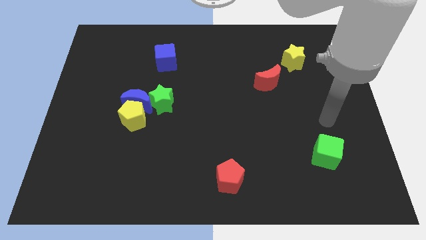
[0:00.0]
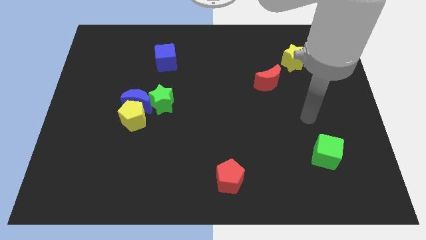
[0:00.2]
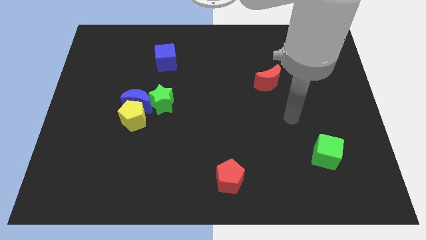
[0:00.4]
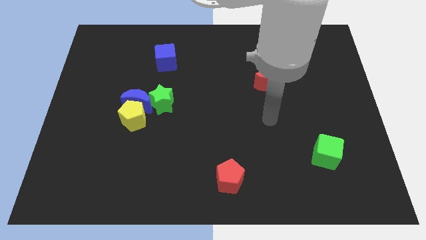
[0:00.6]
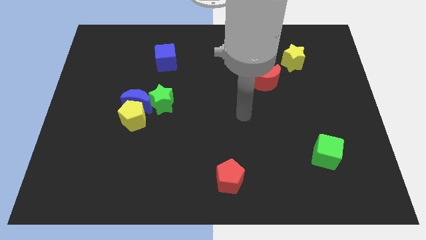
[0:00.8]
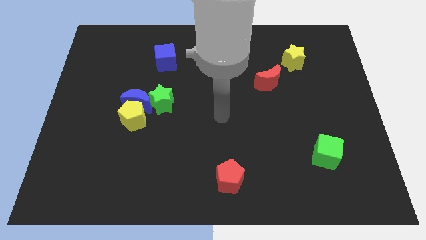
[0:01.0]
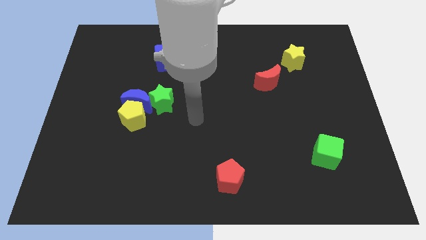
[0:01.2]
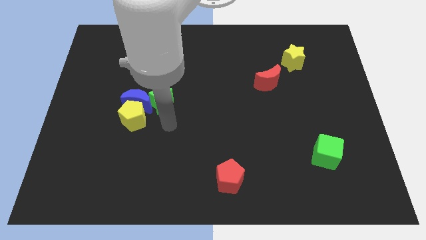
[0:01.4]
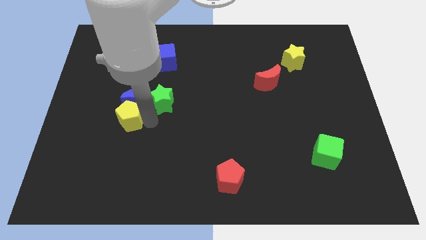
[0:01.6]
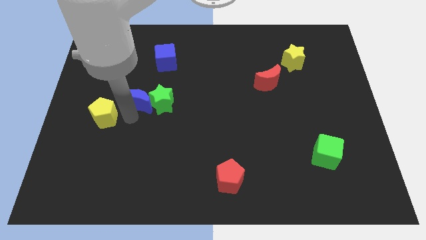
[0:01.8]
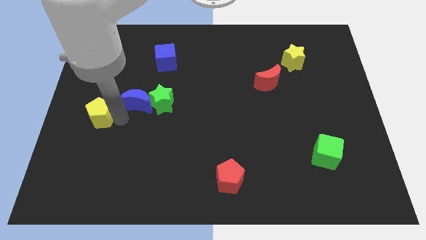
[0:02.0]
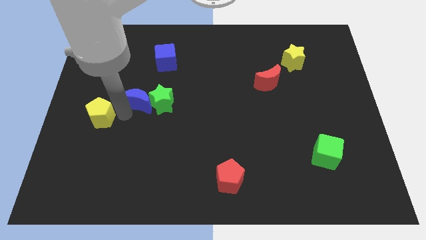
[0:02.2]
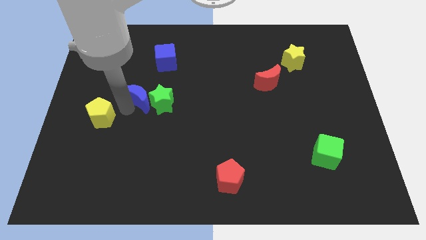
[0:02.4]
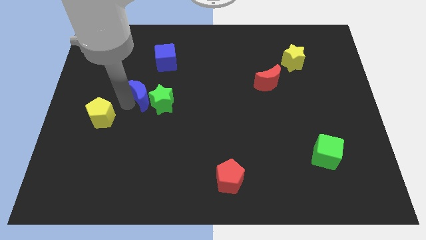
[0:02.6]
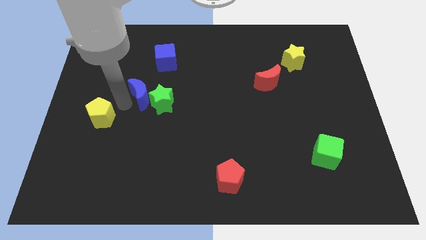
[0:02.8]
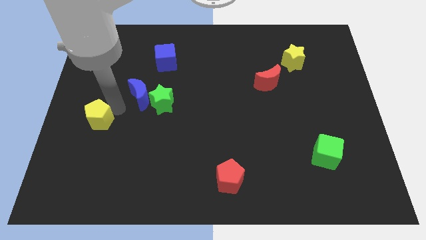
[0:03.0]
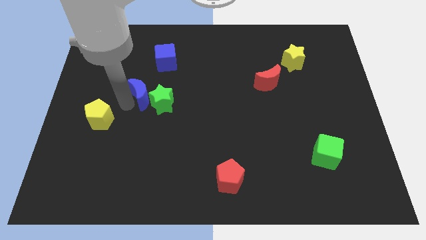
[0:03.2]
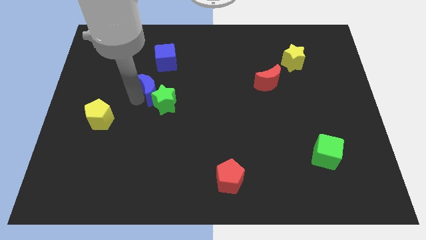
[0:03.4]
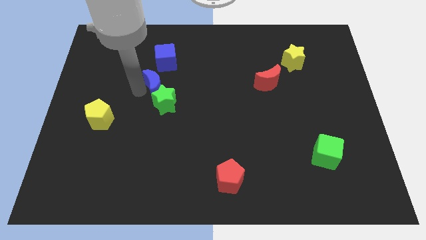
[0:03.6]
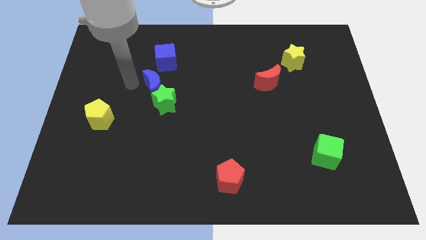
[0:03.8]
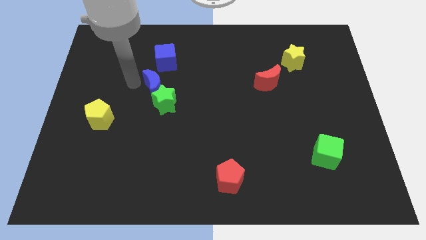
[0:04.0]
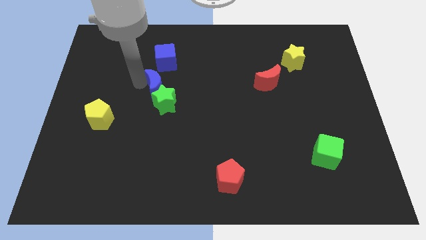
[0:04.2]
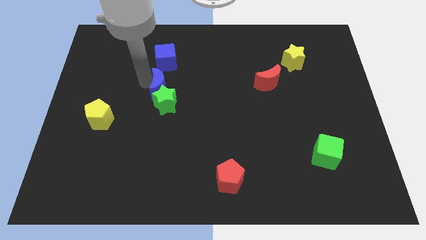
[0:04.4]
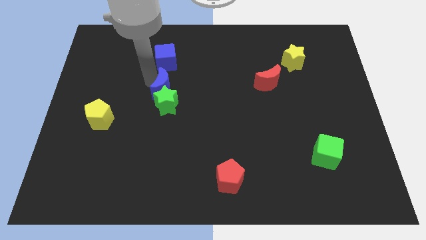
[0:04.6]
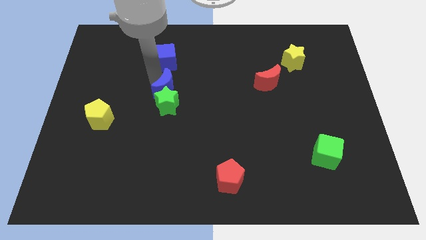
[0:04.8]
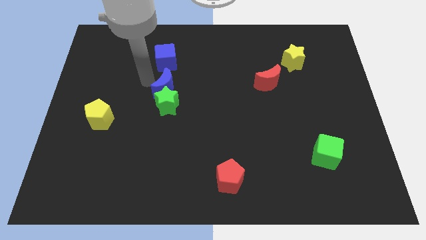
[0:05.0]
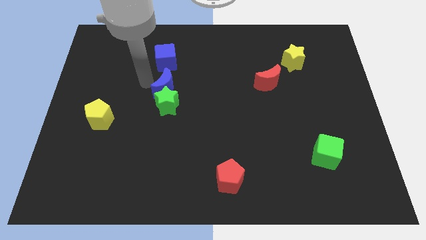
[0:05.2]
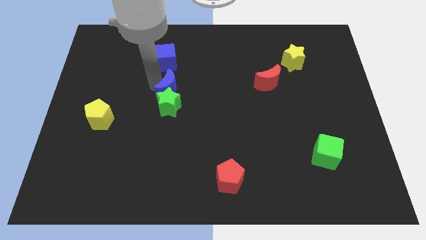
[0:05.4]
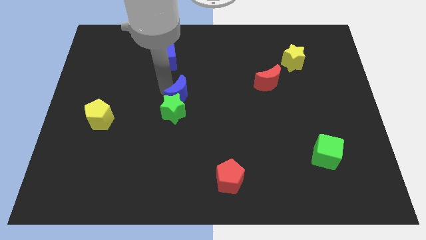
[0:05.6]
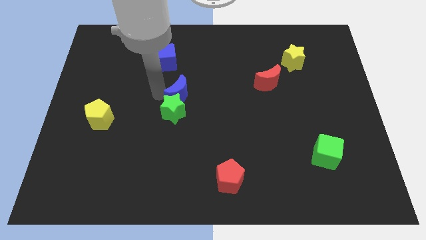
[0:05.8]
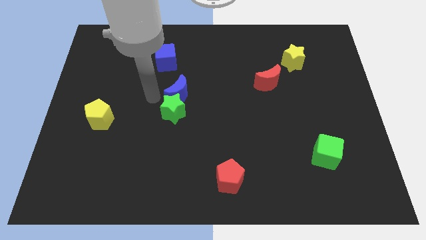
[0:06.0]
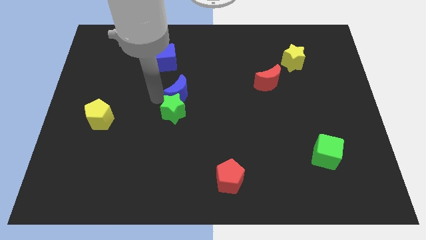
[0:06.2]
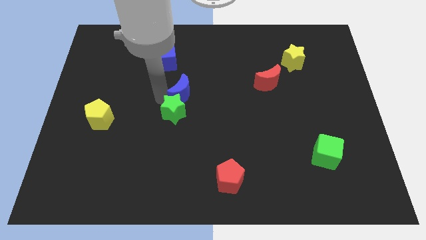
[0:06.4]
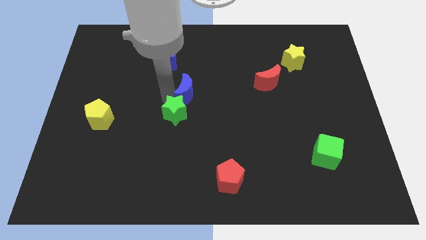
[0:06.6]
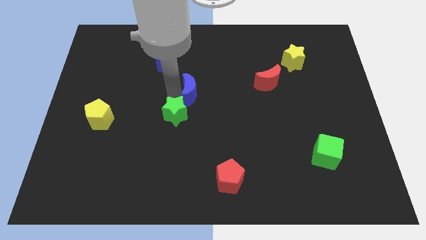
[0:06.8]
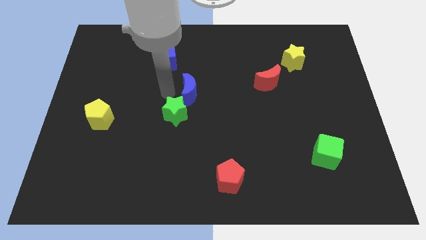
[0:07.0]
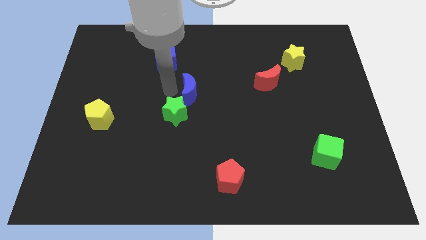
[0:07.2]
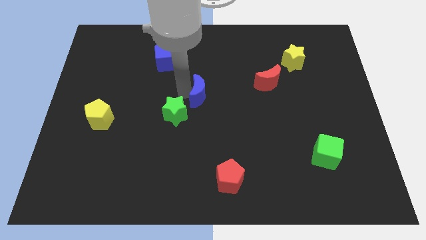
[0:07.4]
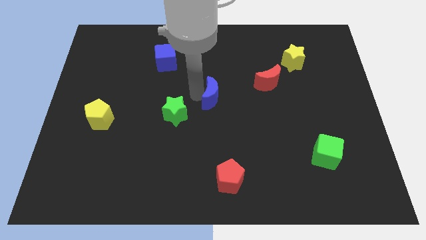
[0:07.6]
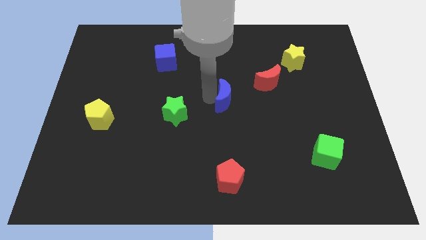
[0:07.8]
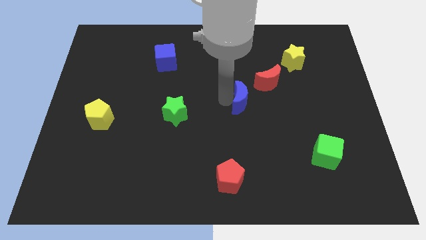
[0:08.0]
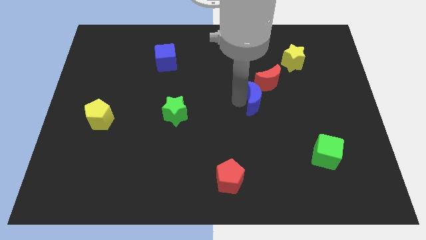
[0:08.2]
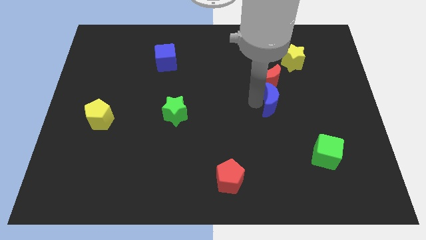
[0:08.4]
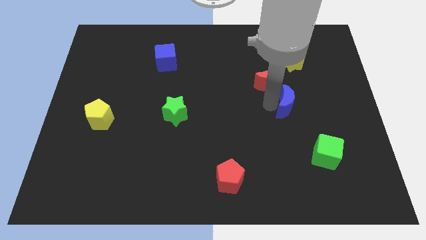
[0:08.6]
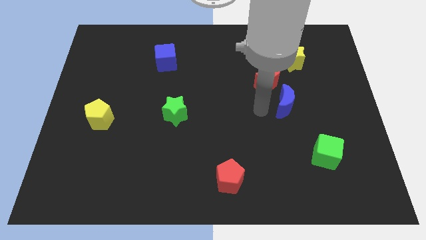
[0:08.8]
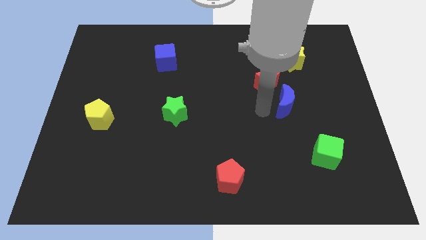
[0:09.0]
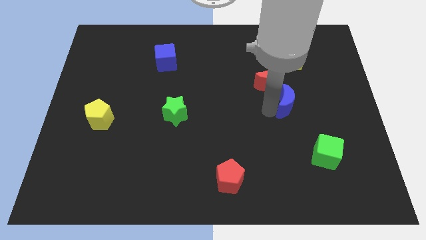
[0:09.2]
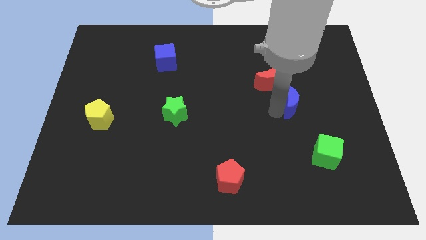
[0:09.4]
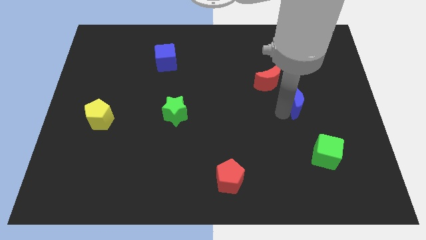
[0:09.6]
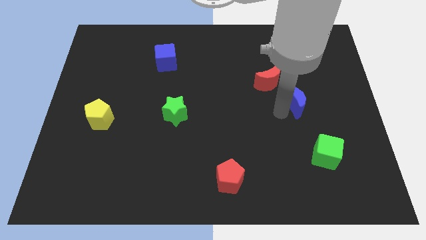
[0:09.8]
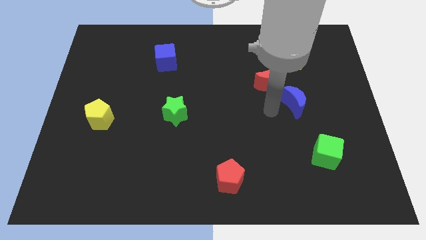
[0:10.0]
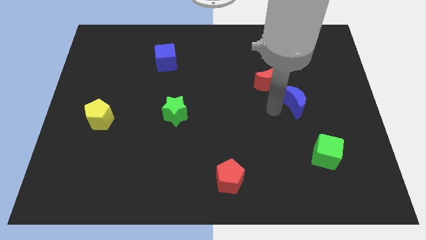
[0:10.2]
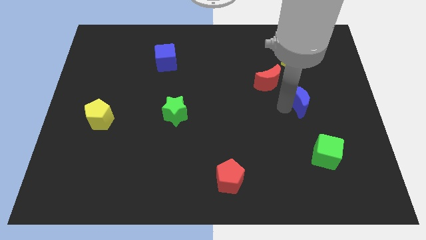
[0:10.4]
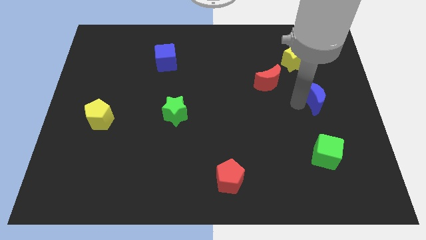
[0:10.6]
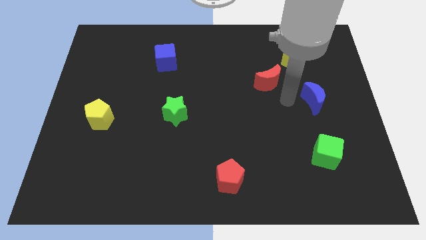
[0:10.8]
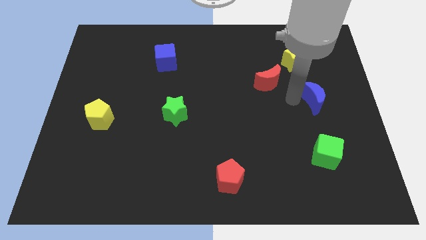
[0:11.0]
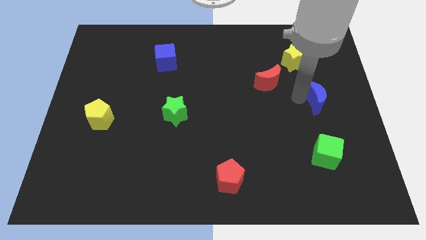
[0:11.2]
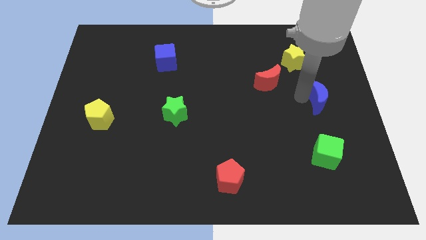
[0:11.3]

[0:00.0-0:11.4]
put the blue moon to the right side
